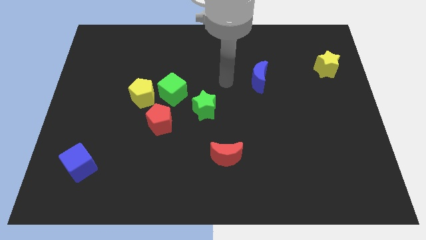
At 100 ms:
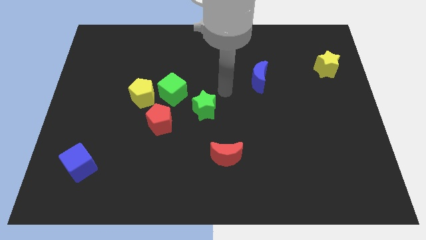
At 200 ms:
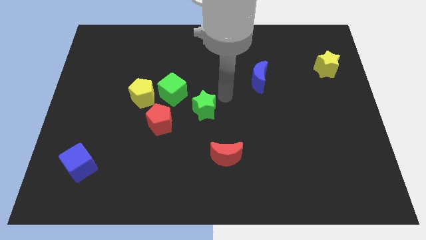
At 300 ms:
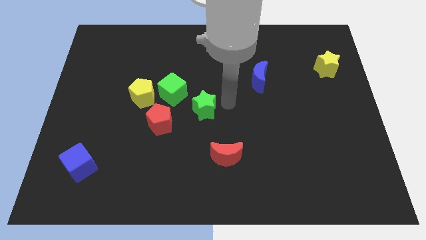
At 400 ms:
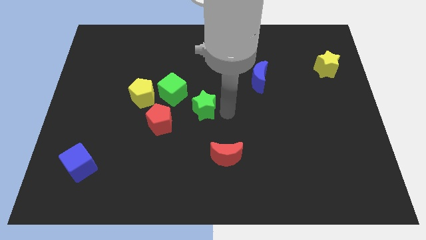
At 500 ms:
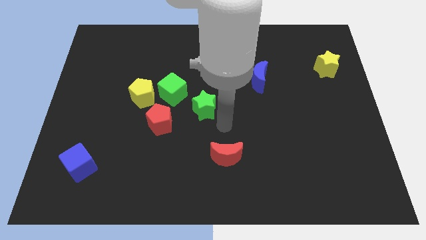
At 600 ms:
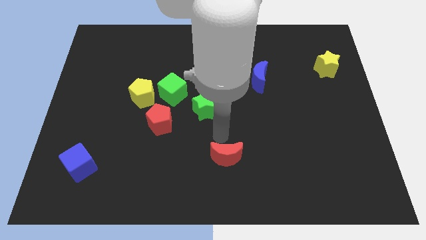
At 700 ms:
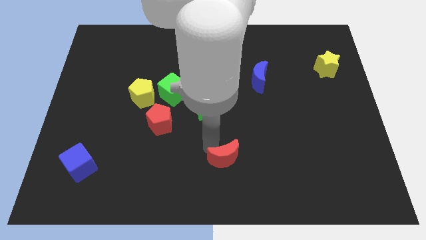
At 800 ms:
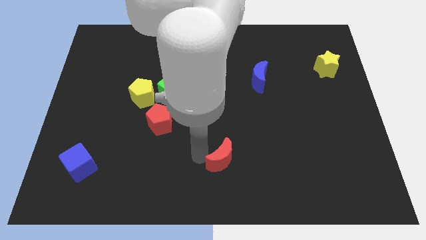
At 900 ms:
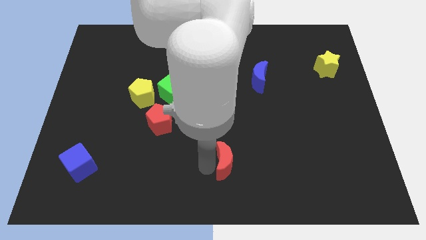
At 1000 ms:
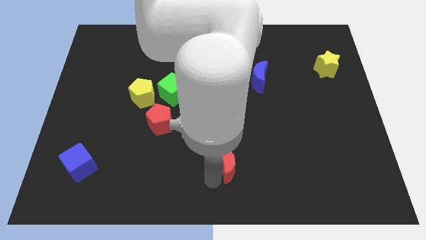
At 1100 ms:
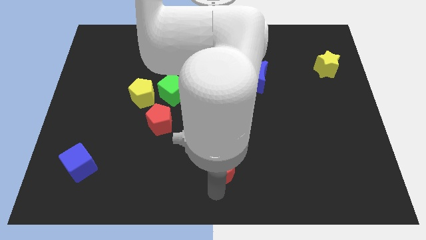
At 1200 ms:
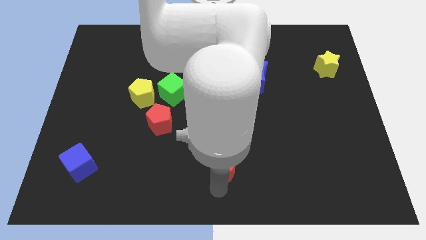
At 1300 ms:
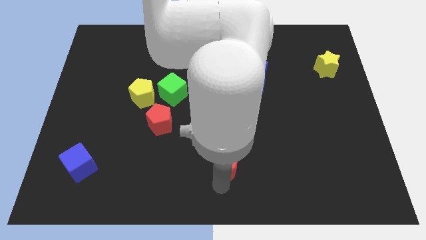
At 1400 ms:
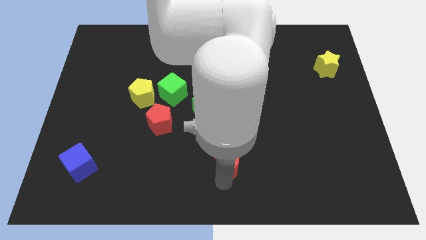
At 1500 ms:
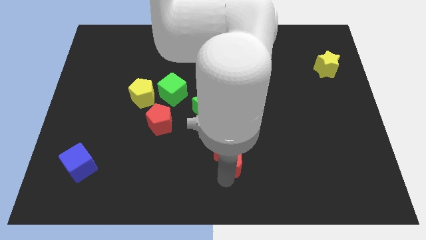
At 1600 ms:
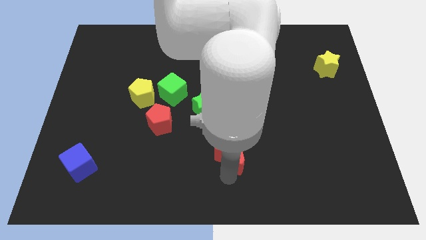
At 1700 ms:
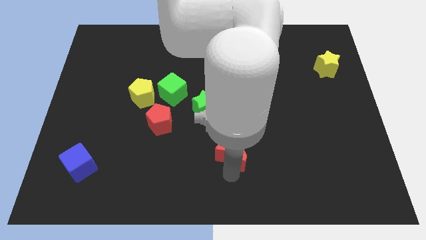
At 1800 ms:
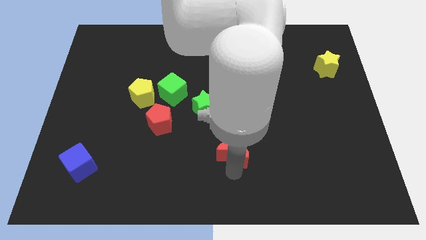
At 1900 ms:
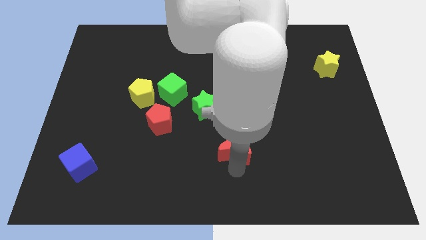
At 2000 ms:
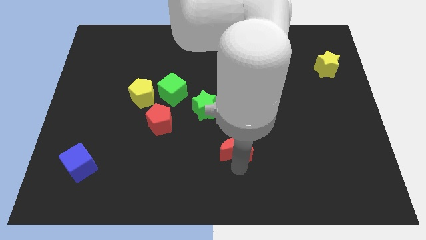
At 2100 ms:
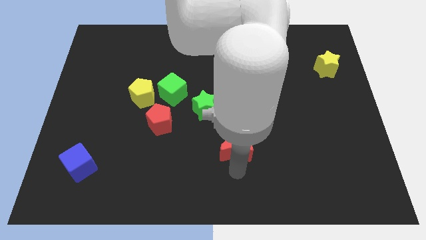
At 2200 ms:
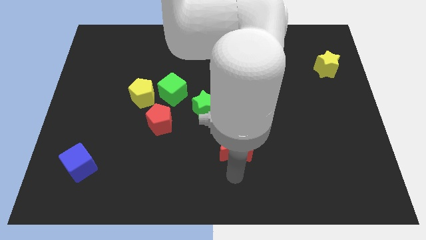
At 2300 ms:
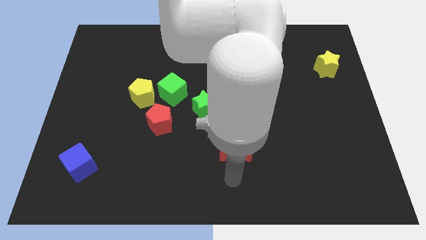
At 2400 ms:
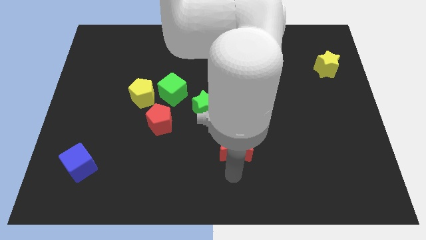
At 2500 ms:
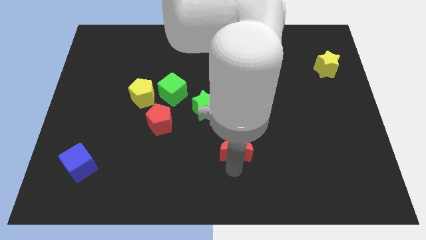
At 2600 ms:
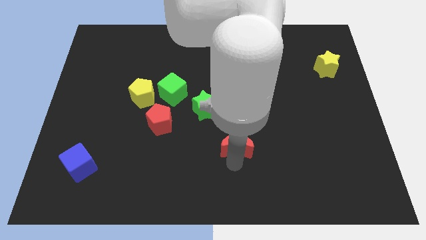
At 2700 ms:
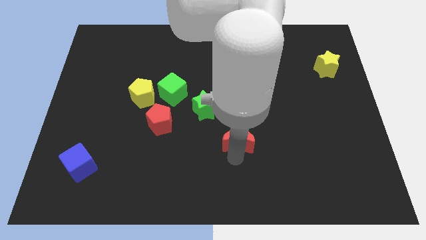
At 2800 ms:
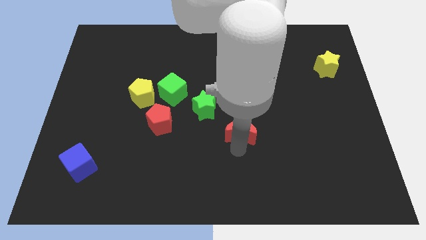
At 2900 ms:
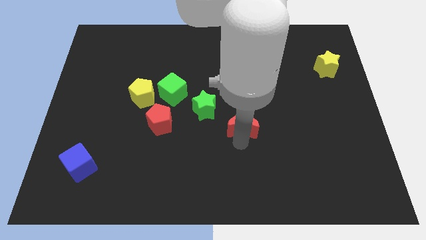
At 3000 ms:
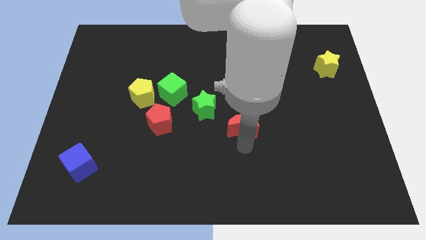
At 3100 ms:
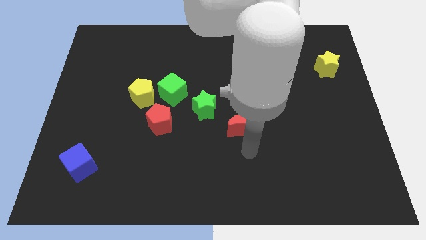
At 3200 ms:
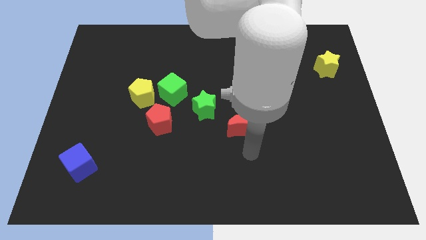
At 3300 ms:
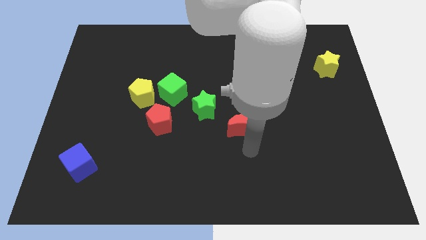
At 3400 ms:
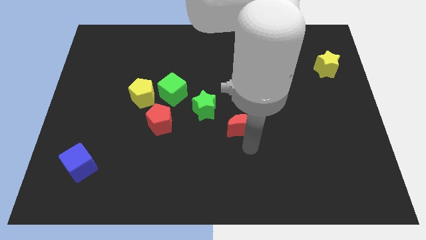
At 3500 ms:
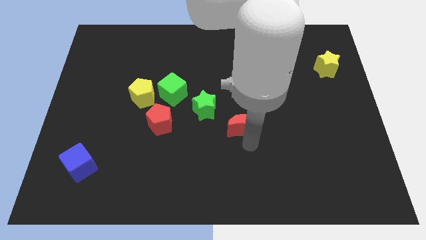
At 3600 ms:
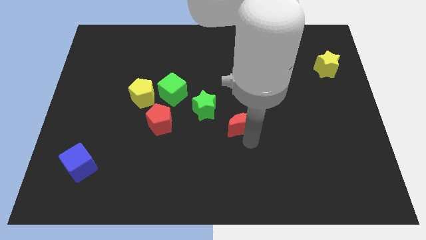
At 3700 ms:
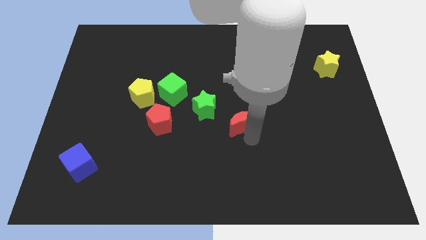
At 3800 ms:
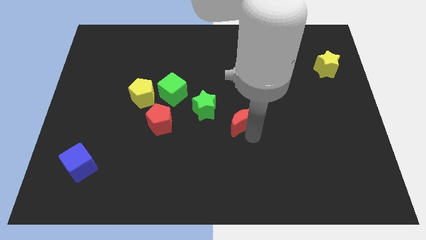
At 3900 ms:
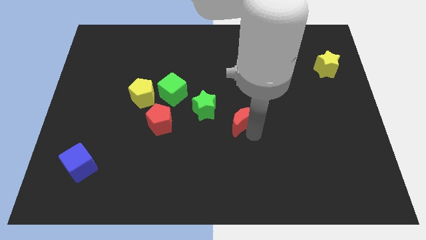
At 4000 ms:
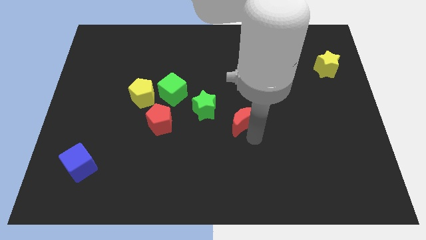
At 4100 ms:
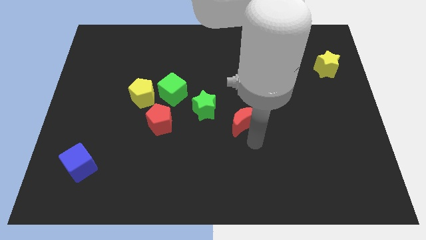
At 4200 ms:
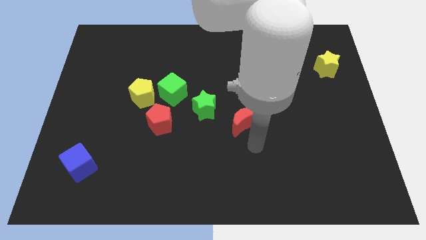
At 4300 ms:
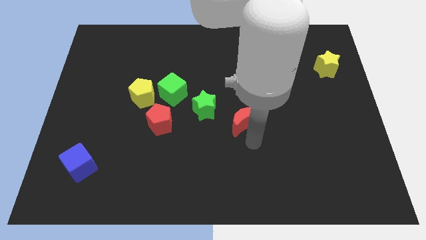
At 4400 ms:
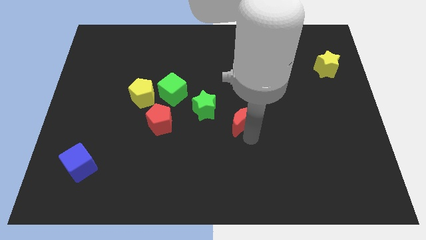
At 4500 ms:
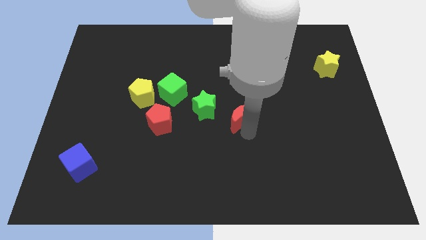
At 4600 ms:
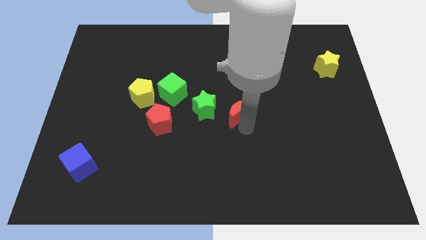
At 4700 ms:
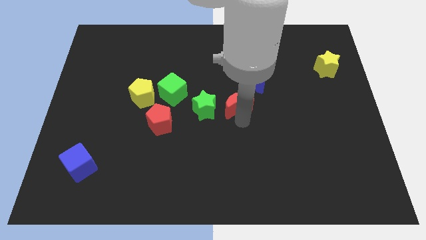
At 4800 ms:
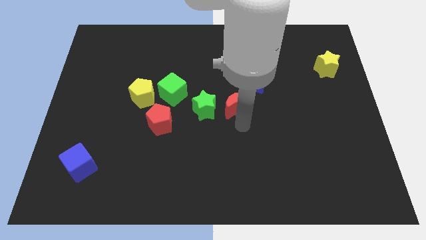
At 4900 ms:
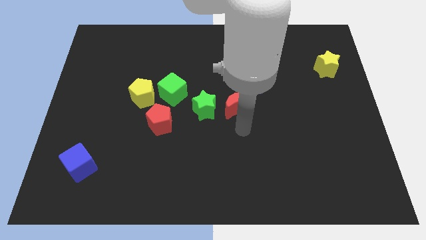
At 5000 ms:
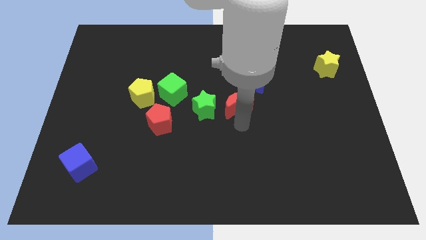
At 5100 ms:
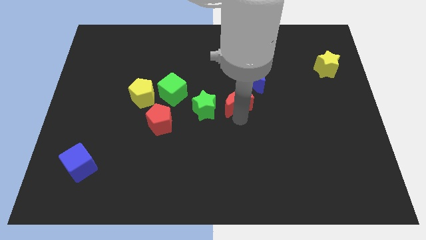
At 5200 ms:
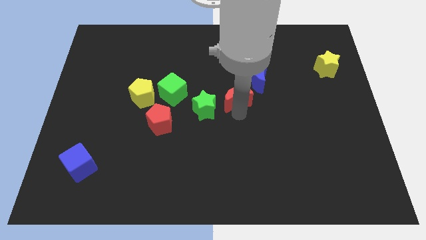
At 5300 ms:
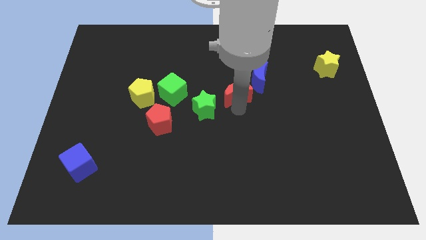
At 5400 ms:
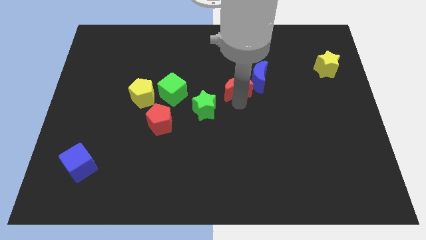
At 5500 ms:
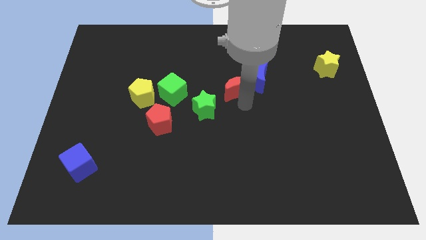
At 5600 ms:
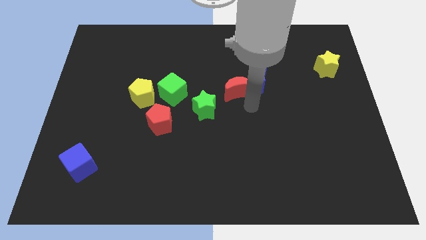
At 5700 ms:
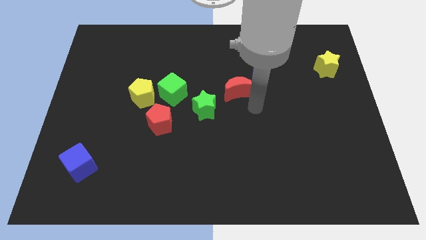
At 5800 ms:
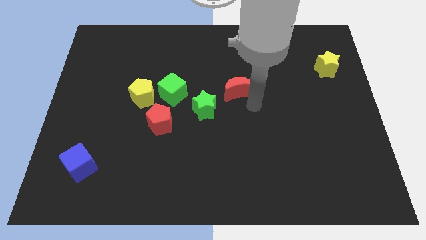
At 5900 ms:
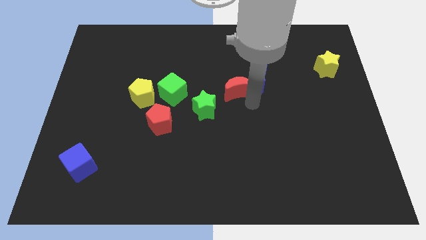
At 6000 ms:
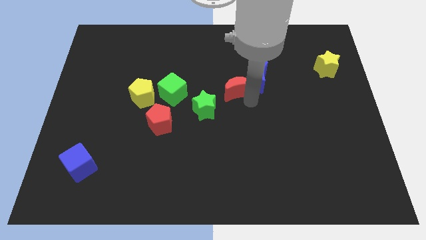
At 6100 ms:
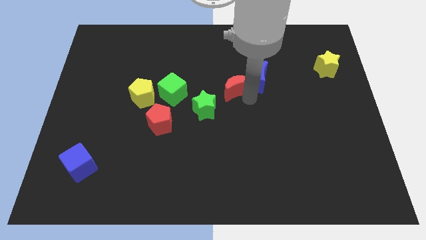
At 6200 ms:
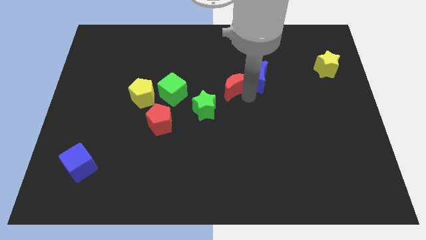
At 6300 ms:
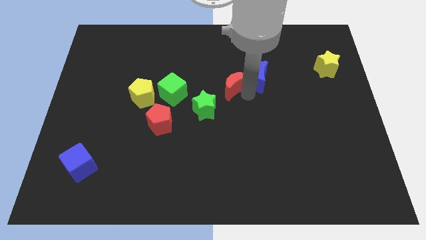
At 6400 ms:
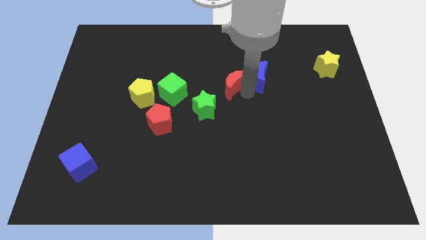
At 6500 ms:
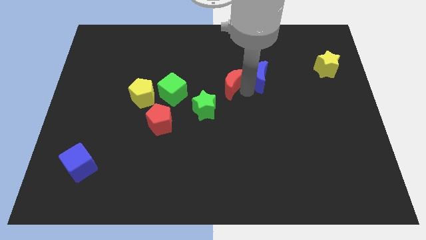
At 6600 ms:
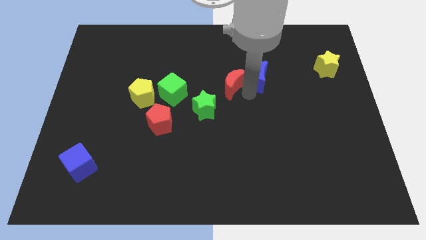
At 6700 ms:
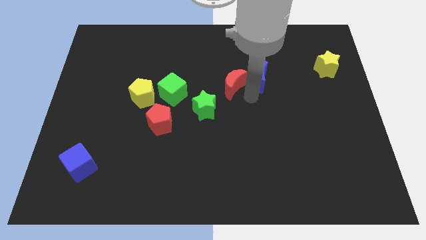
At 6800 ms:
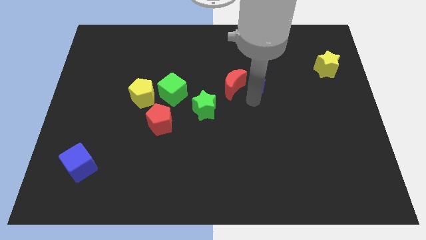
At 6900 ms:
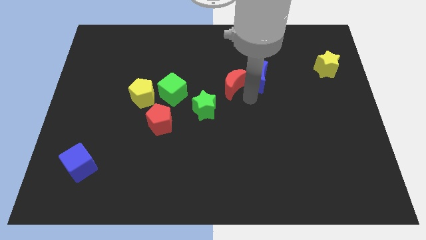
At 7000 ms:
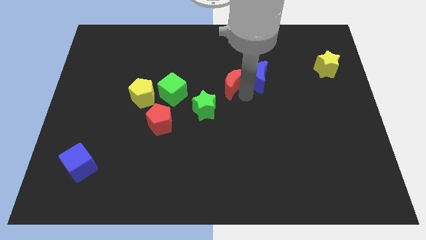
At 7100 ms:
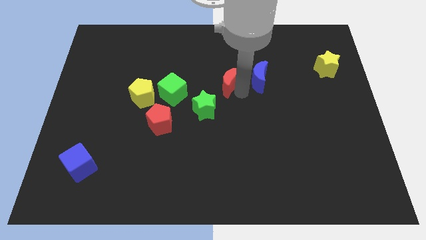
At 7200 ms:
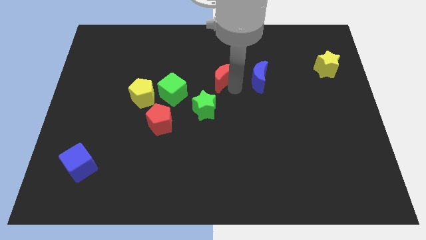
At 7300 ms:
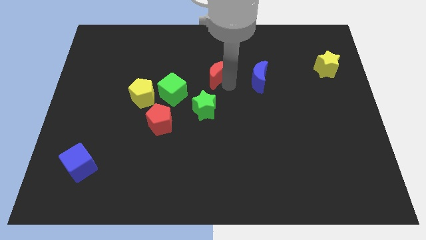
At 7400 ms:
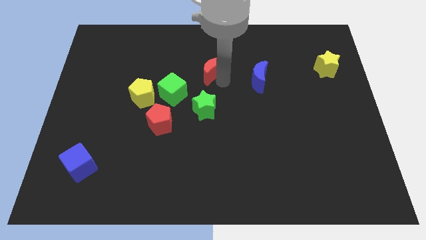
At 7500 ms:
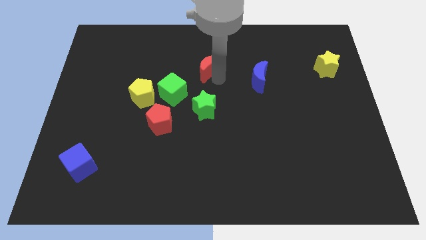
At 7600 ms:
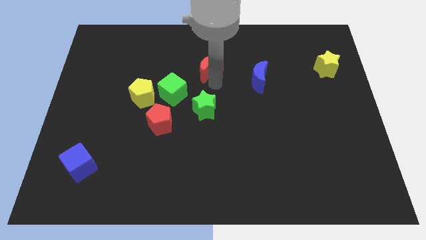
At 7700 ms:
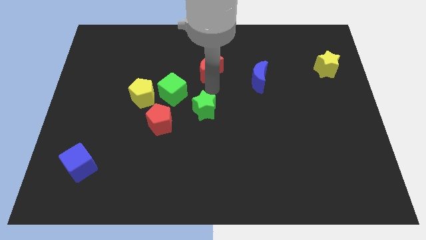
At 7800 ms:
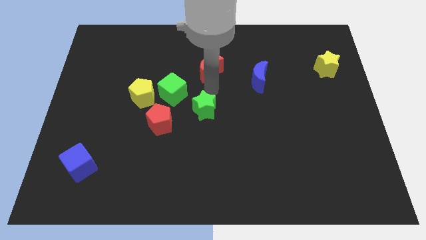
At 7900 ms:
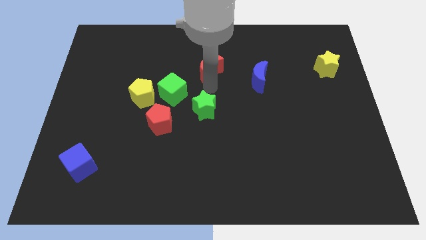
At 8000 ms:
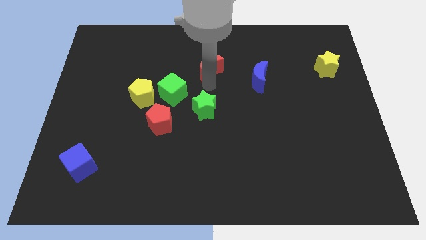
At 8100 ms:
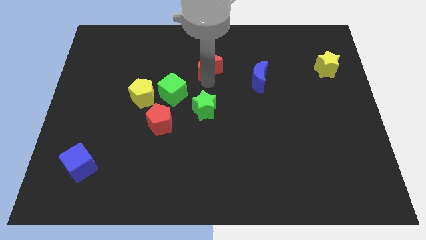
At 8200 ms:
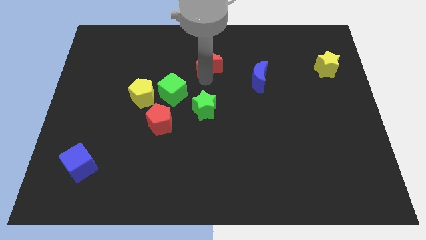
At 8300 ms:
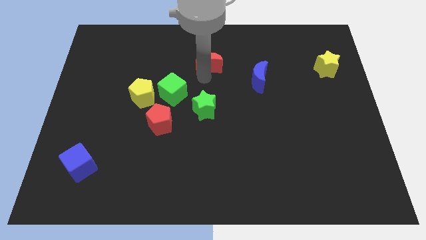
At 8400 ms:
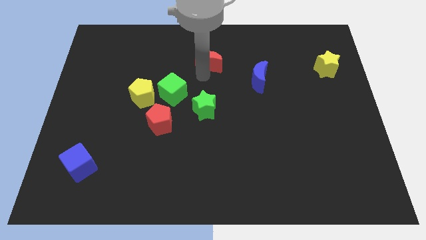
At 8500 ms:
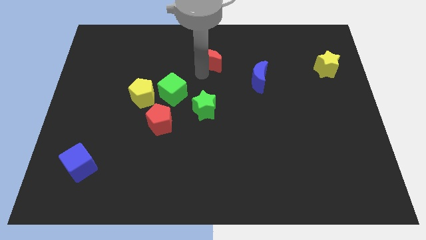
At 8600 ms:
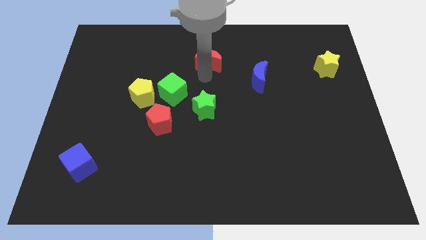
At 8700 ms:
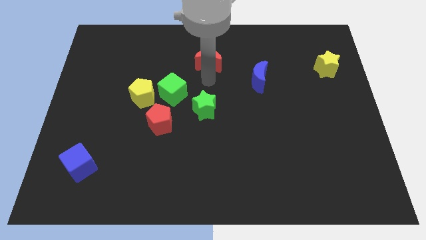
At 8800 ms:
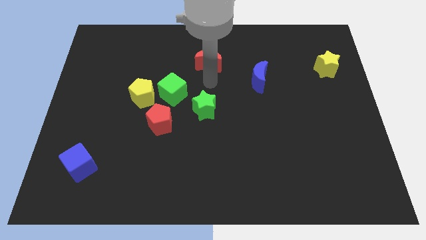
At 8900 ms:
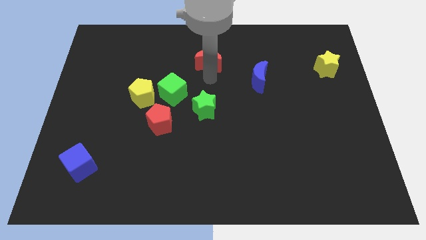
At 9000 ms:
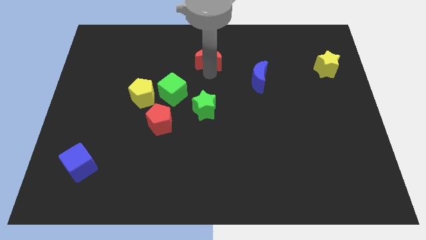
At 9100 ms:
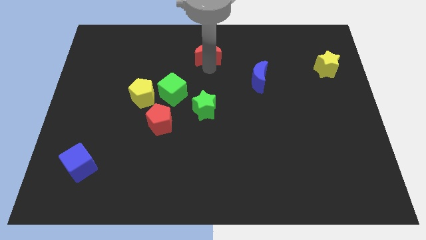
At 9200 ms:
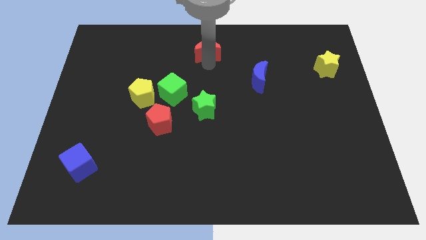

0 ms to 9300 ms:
move the red moon to the top side
